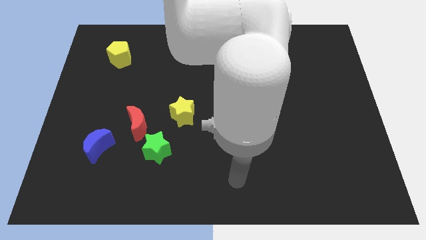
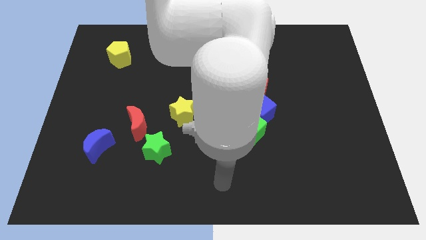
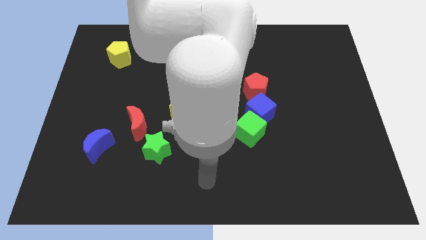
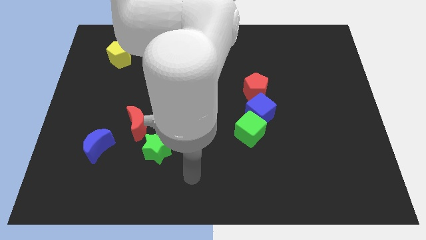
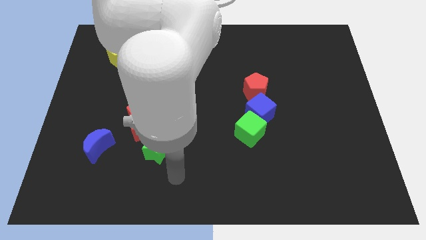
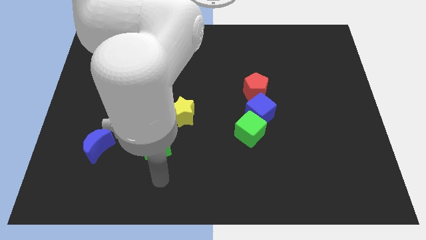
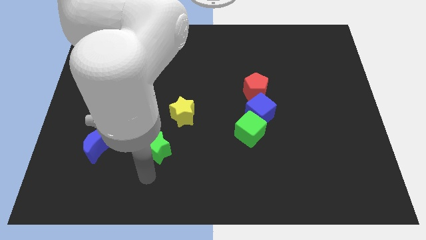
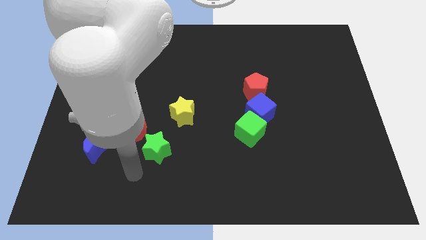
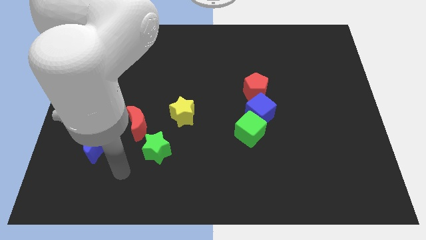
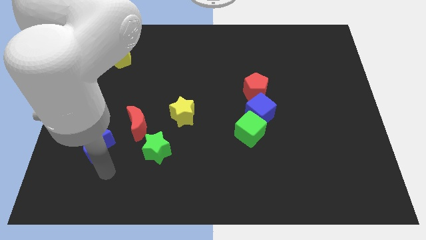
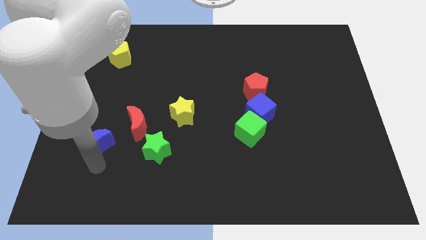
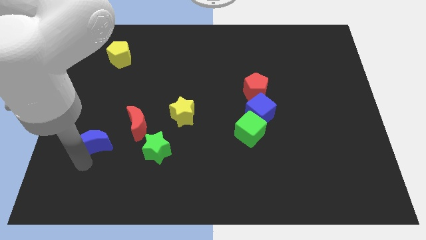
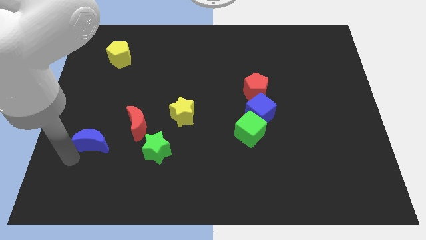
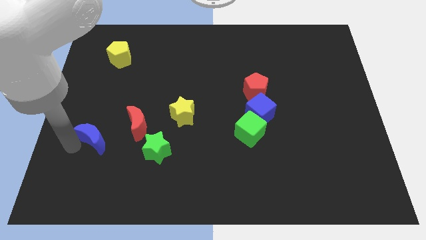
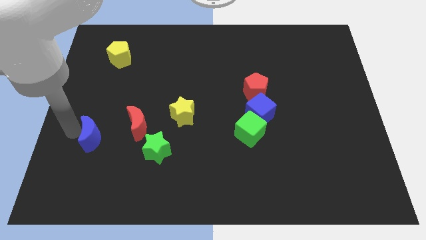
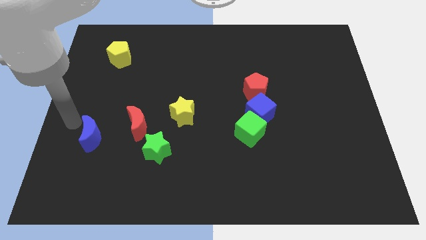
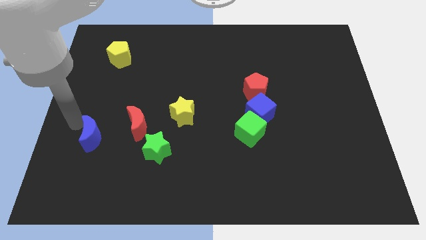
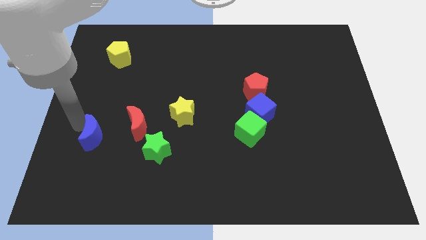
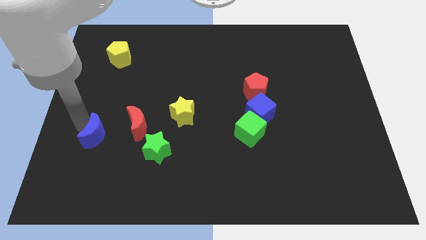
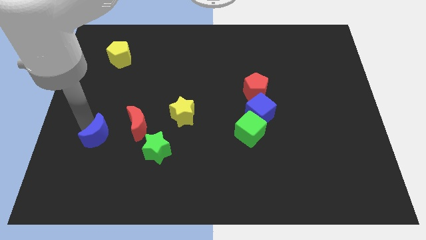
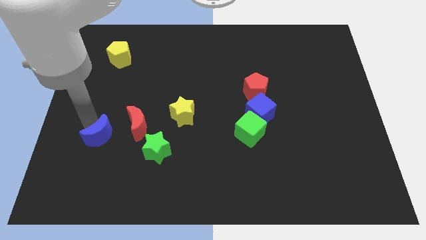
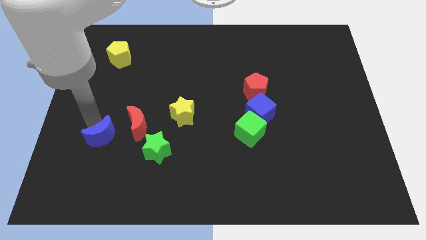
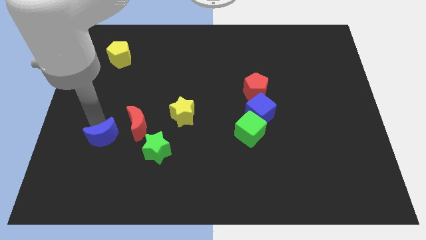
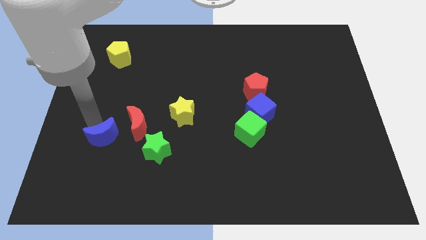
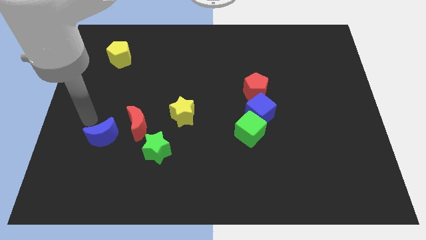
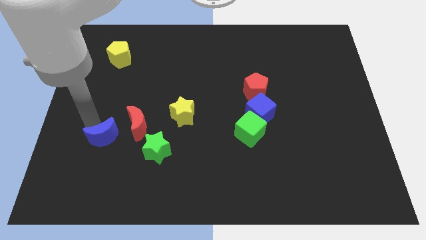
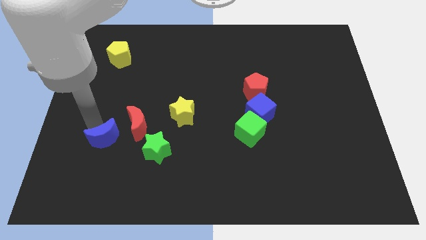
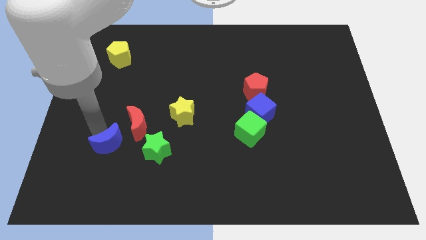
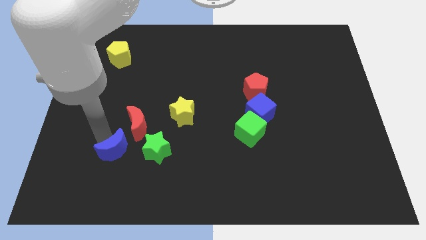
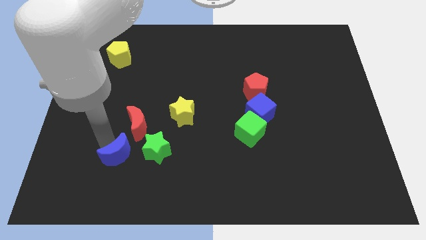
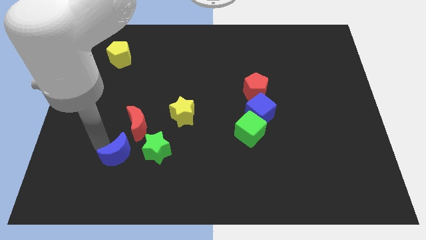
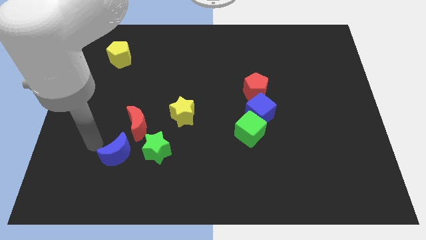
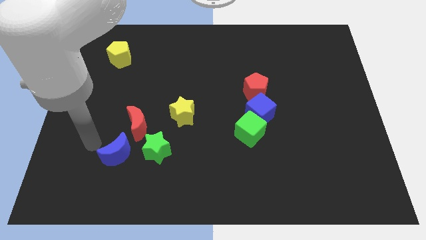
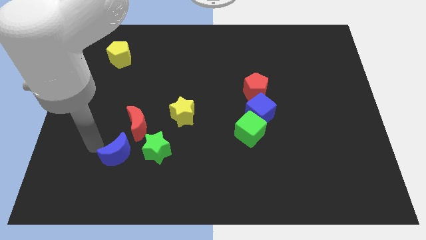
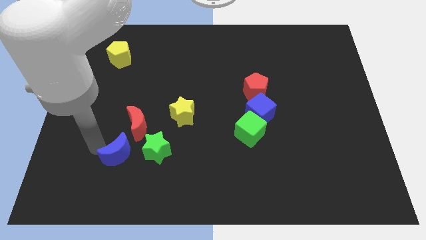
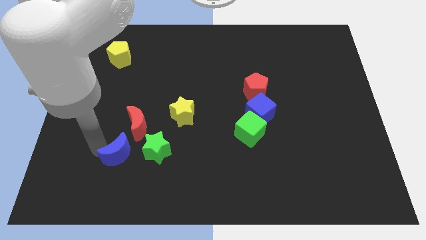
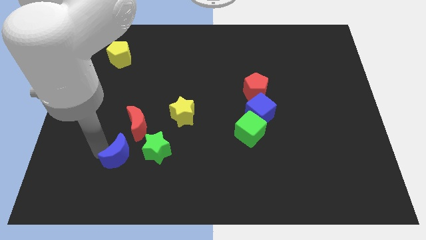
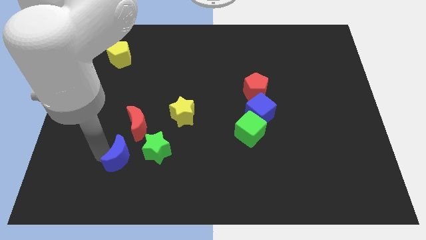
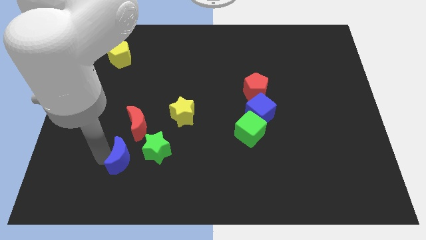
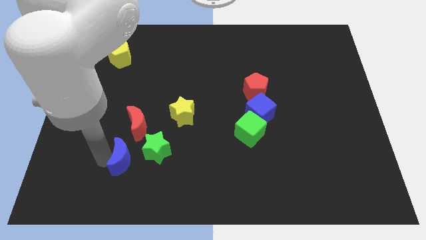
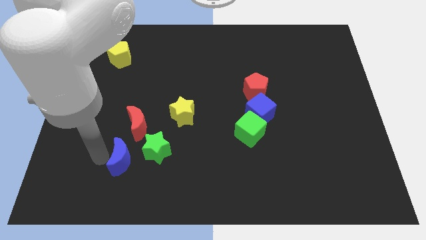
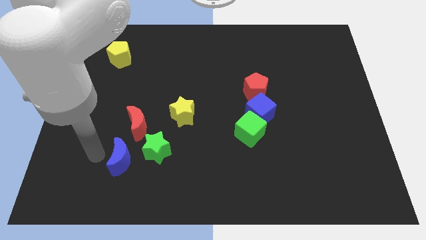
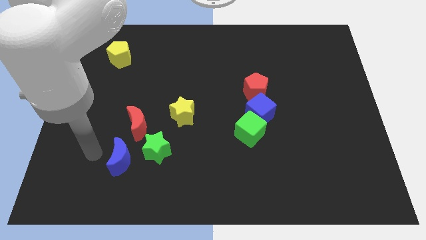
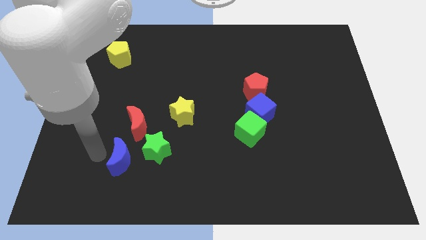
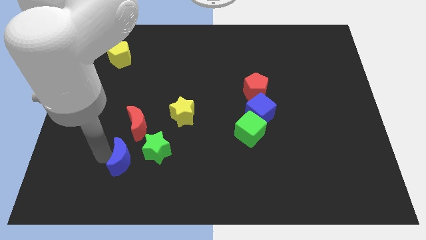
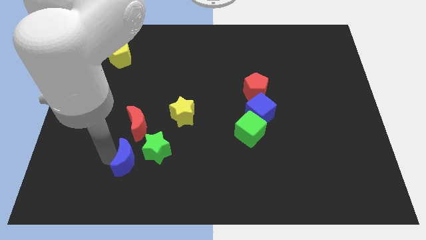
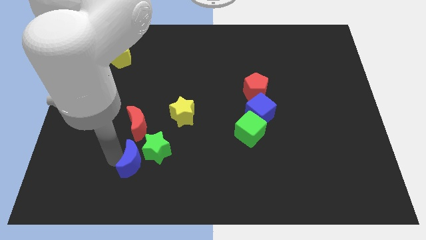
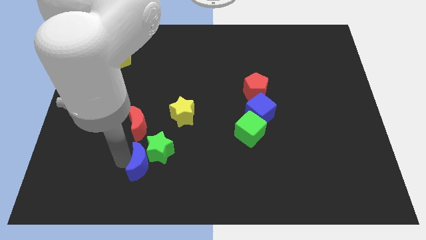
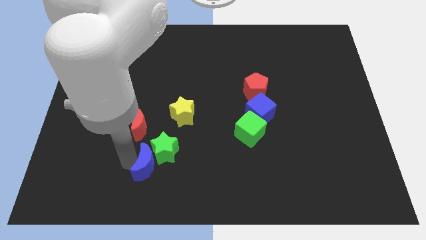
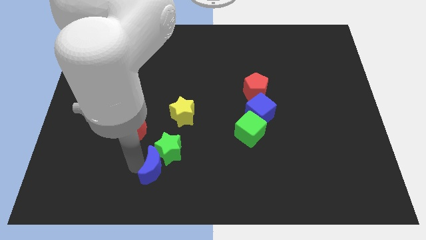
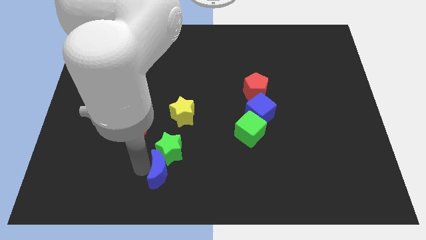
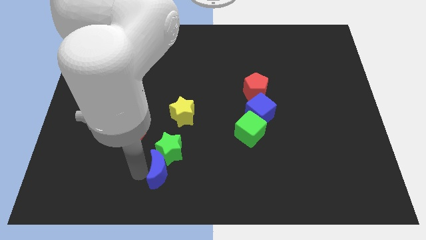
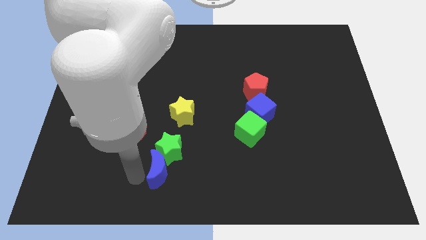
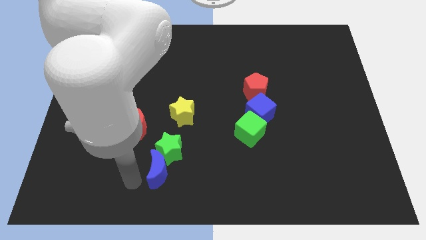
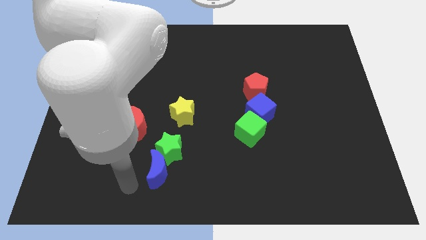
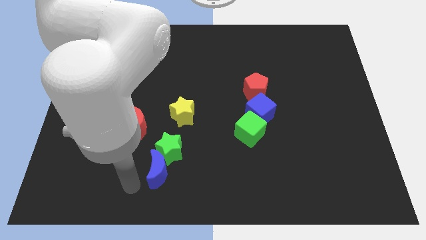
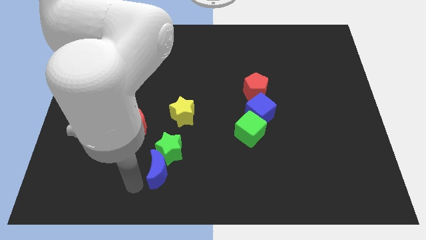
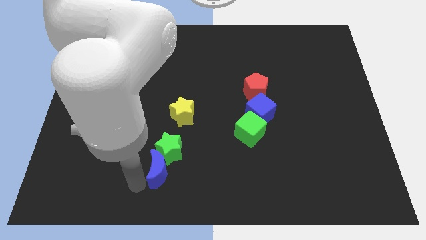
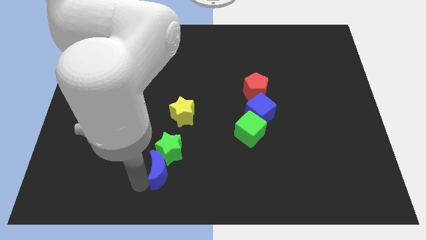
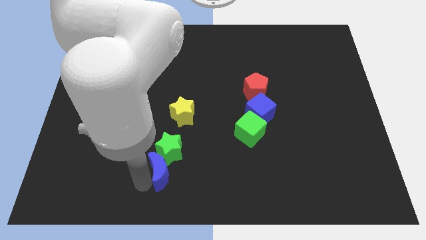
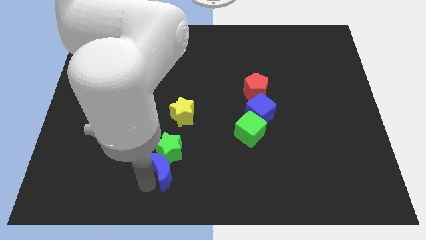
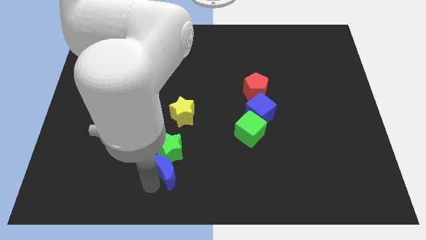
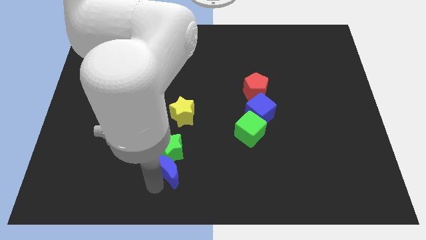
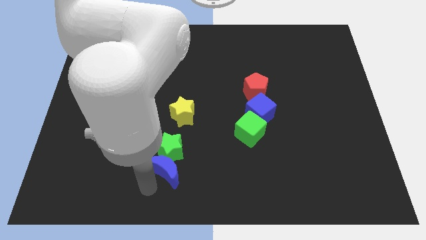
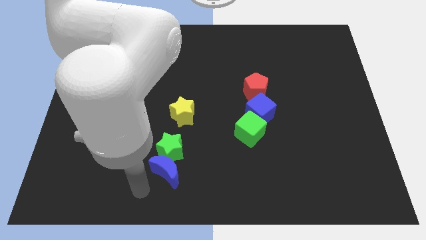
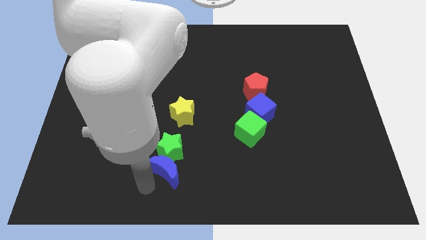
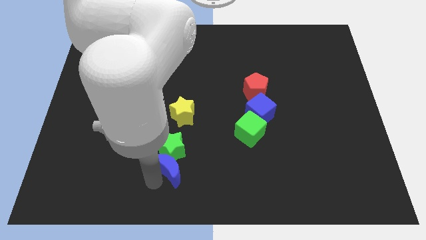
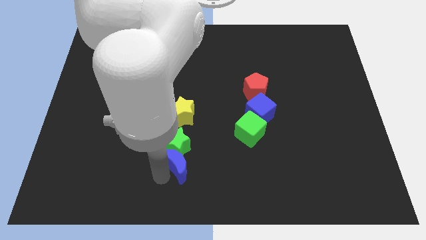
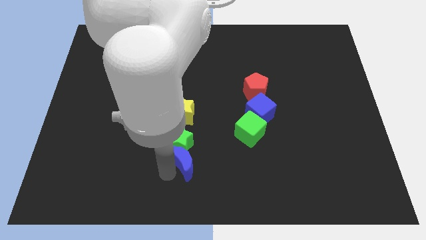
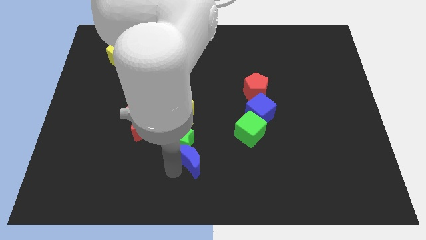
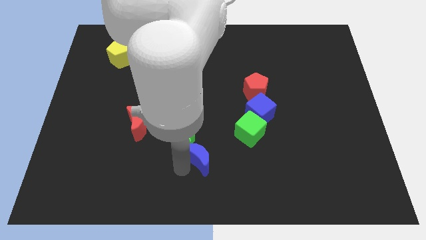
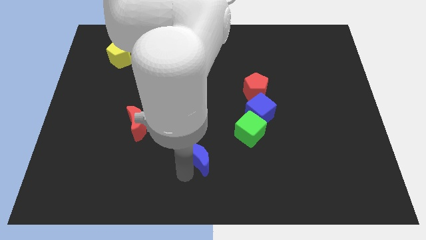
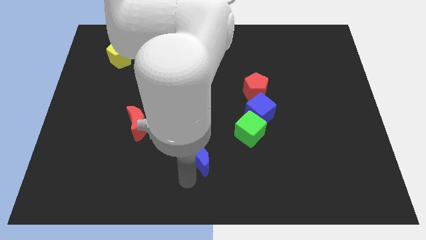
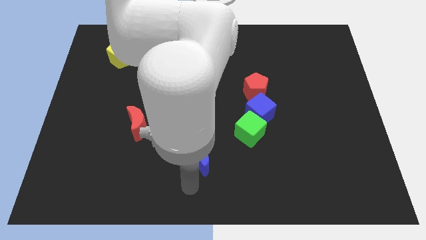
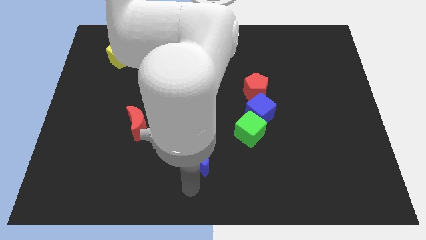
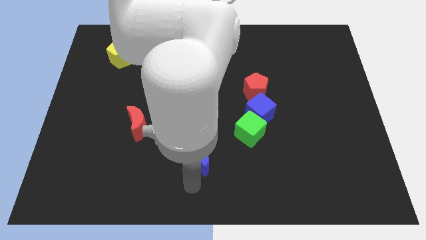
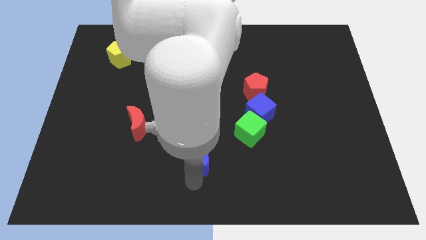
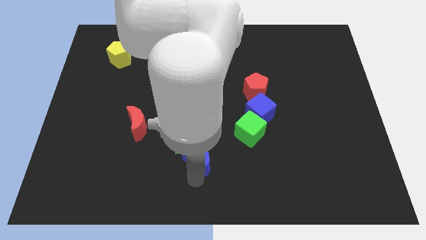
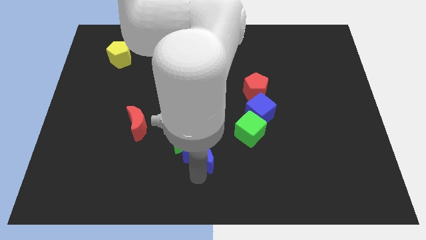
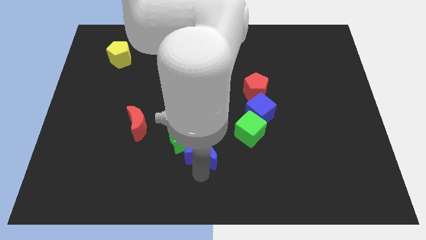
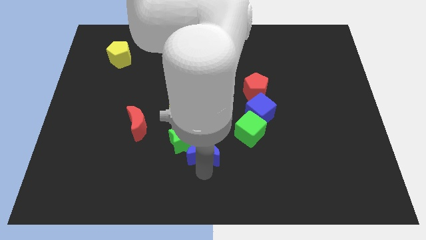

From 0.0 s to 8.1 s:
move the blue moon to the bottom right side of the yellow star

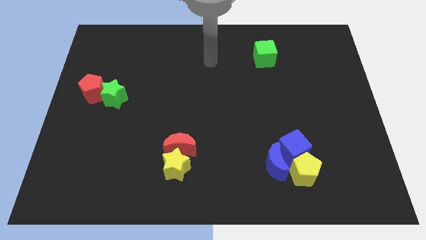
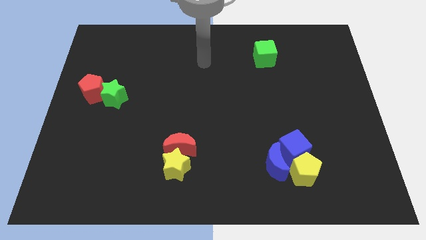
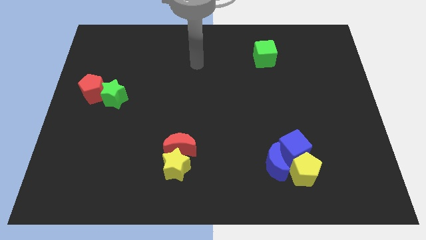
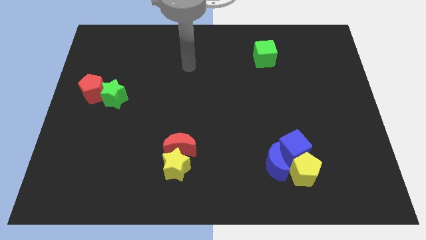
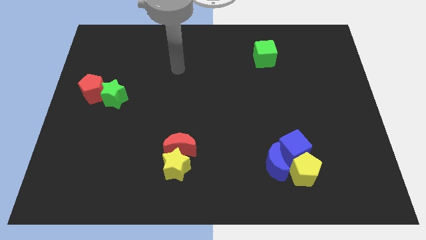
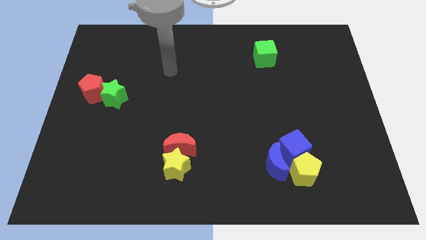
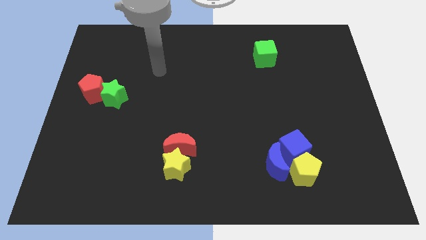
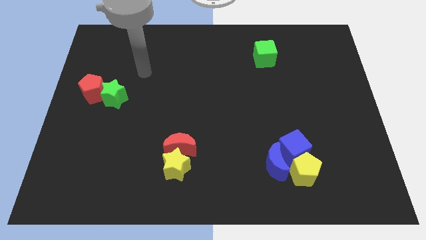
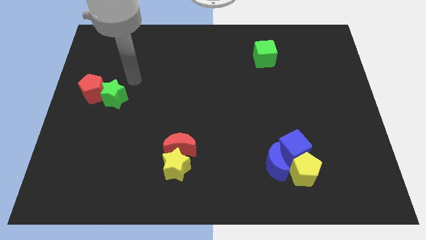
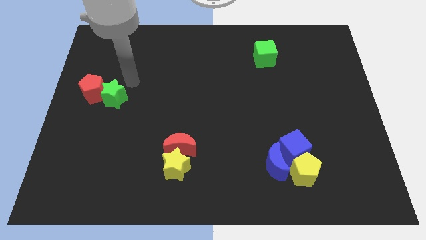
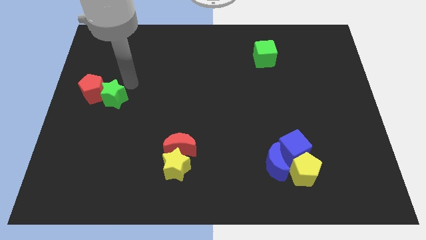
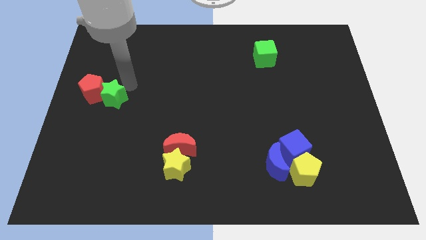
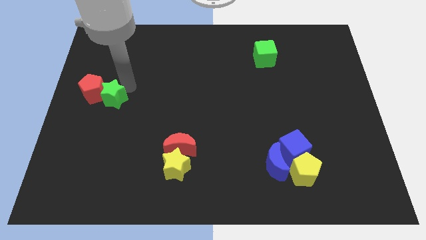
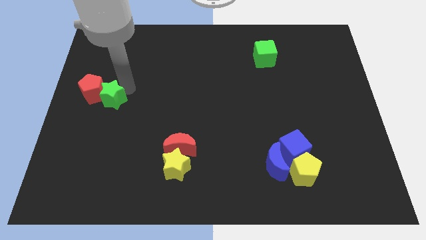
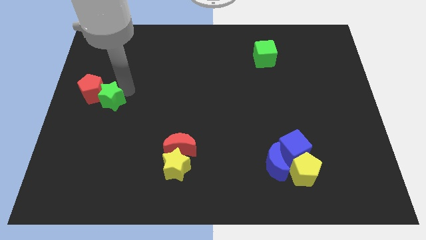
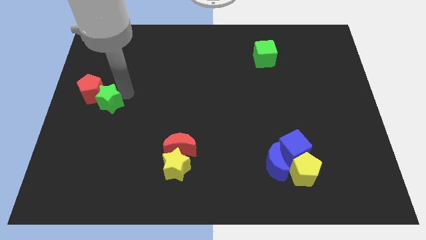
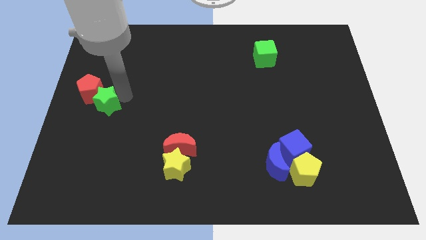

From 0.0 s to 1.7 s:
push the green star to the bottom of the red pentagon
